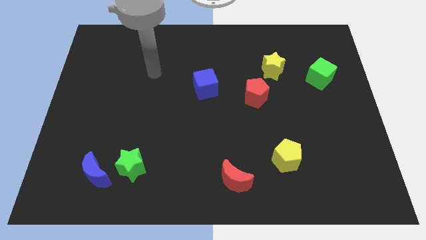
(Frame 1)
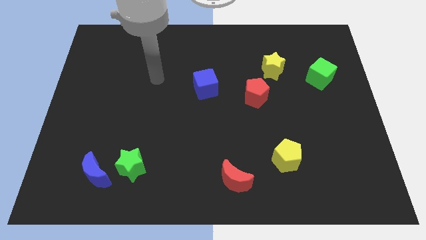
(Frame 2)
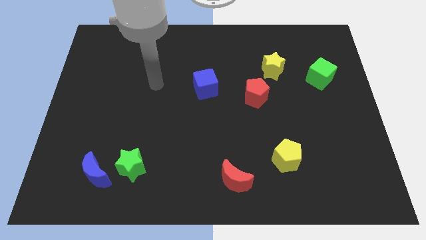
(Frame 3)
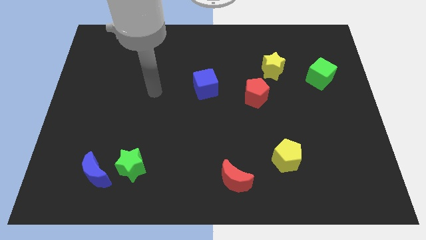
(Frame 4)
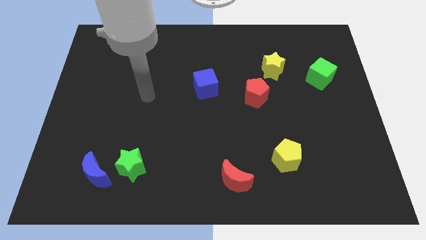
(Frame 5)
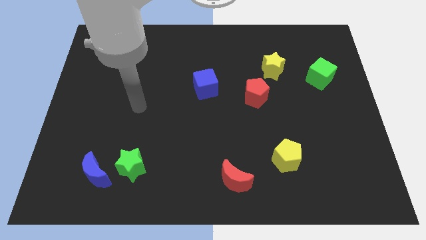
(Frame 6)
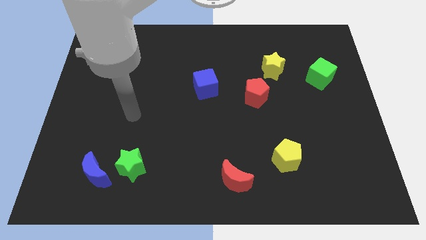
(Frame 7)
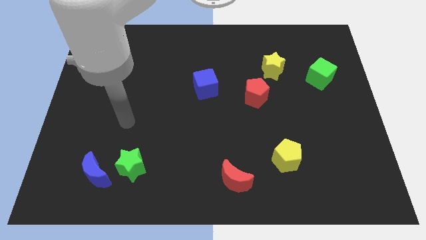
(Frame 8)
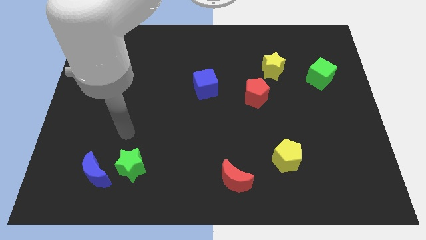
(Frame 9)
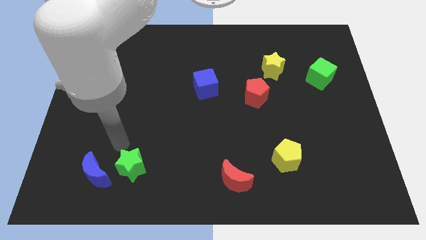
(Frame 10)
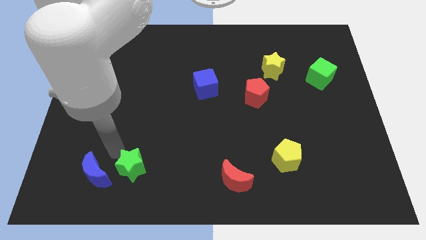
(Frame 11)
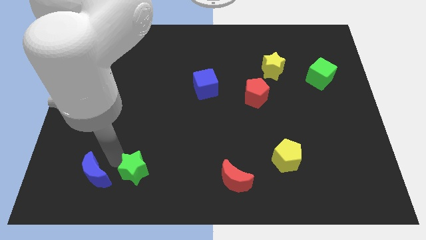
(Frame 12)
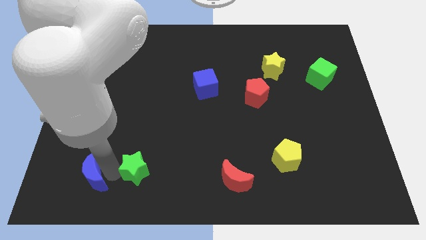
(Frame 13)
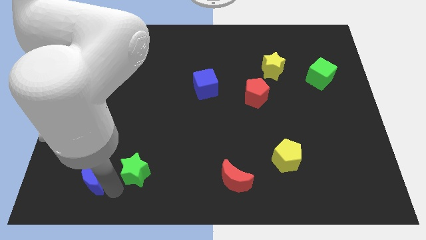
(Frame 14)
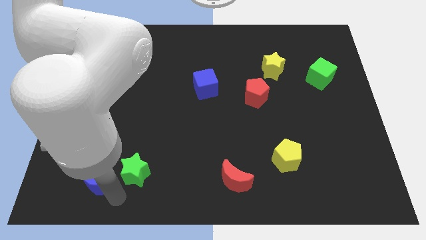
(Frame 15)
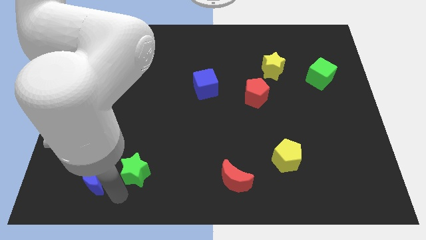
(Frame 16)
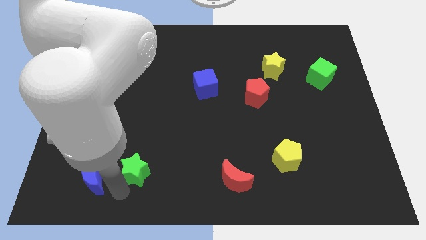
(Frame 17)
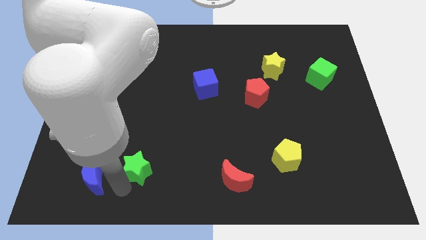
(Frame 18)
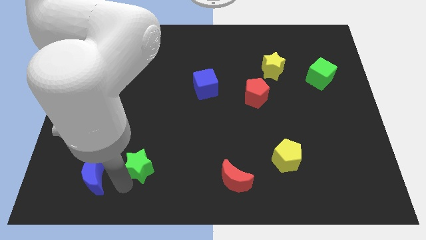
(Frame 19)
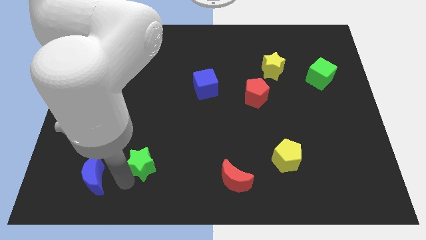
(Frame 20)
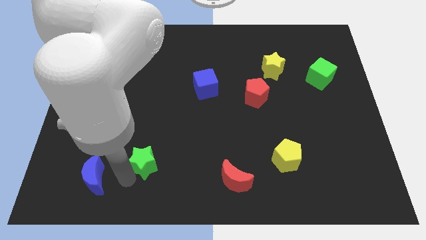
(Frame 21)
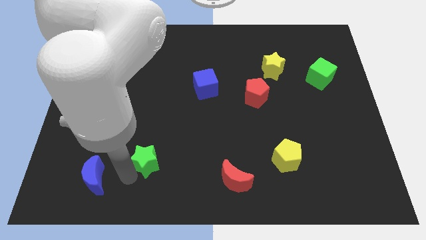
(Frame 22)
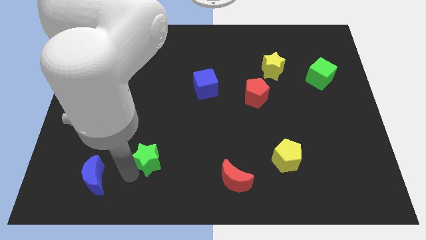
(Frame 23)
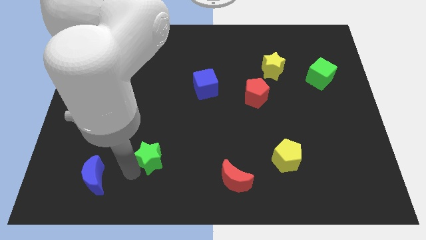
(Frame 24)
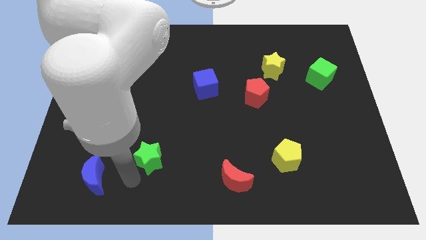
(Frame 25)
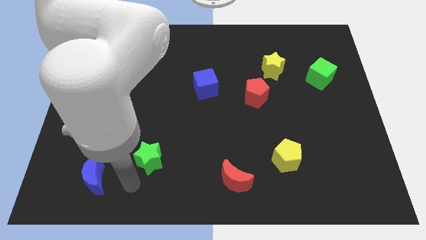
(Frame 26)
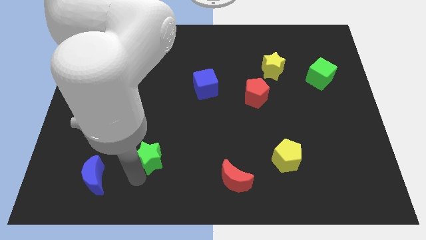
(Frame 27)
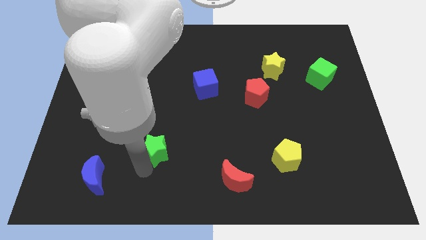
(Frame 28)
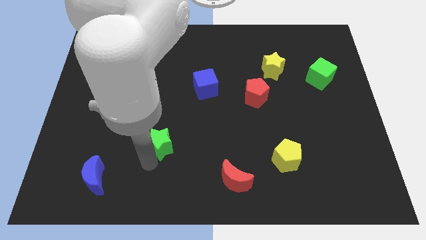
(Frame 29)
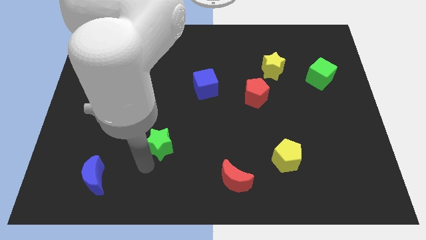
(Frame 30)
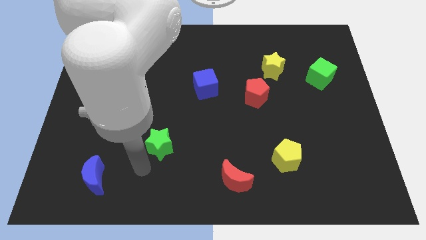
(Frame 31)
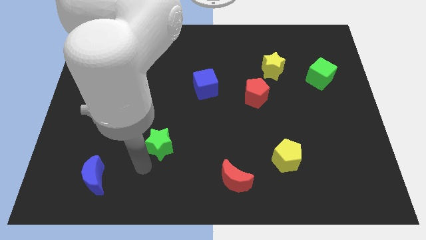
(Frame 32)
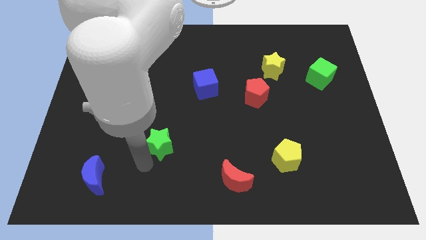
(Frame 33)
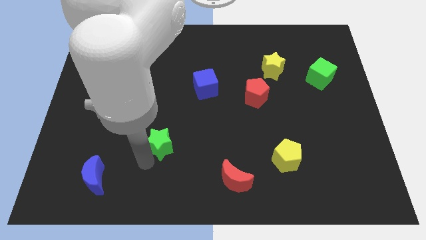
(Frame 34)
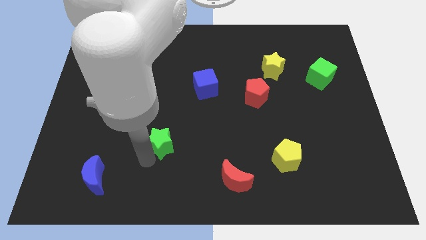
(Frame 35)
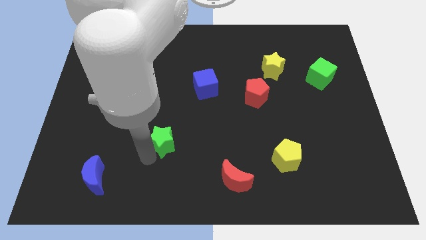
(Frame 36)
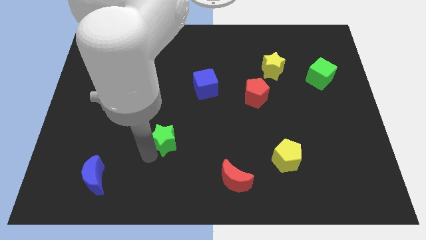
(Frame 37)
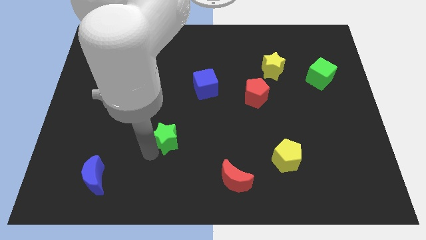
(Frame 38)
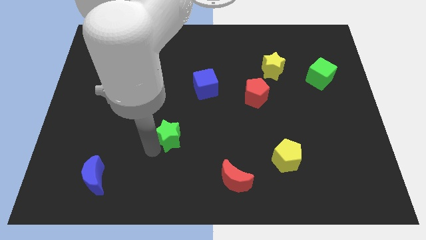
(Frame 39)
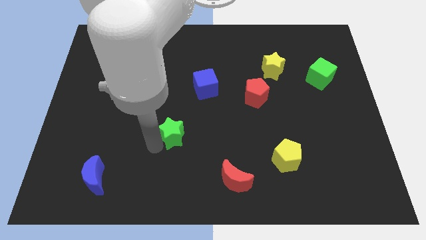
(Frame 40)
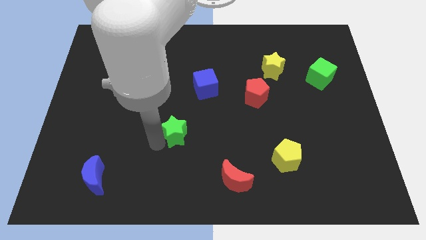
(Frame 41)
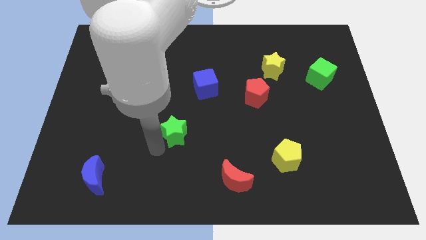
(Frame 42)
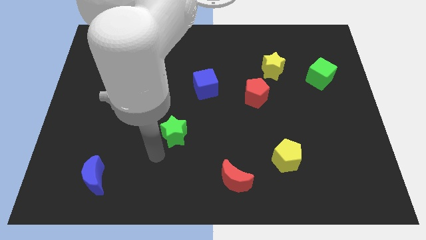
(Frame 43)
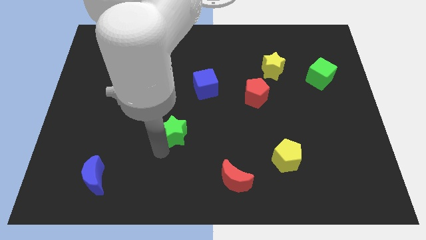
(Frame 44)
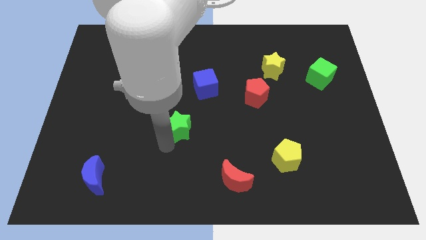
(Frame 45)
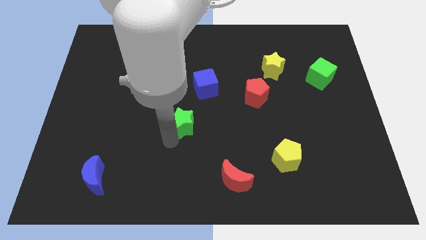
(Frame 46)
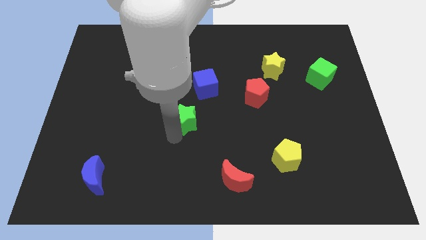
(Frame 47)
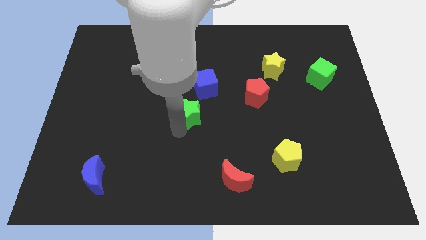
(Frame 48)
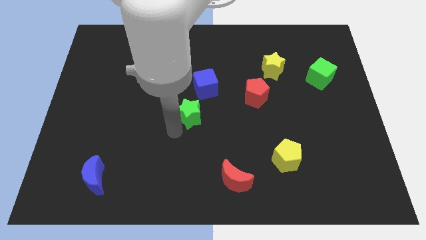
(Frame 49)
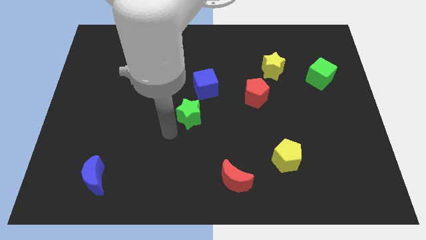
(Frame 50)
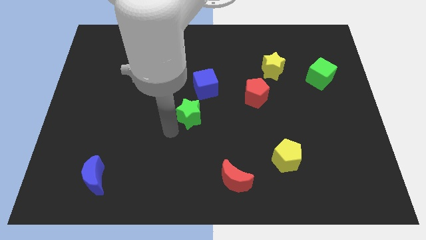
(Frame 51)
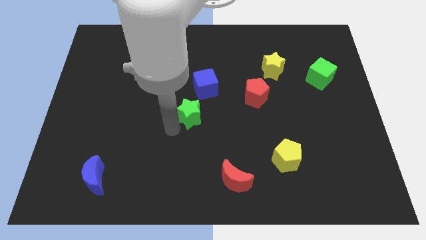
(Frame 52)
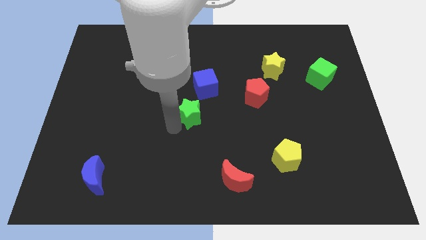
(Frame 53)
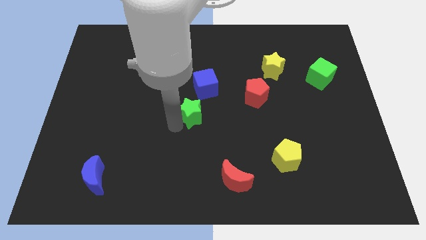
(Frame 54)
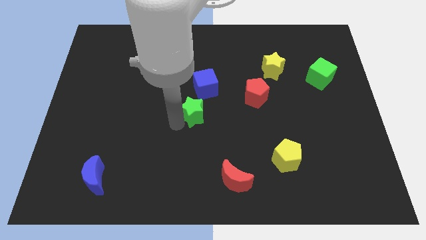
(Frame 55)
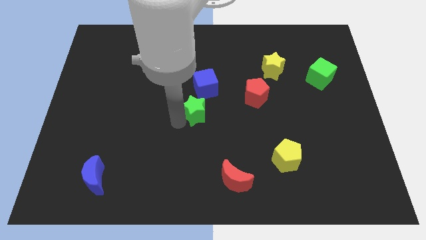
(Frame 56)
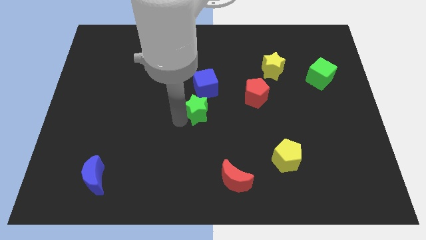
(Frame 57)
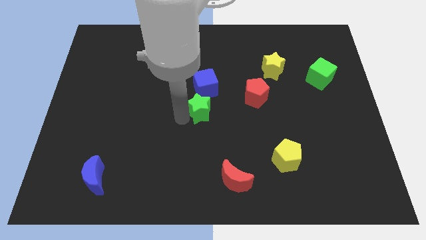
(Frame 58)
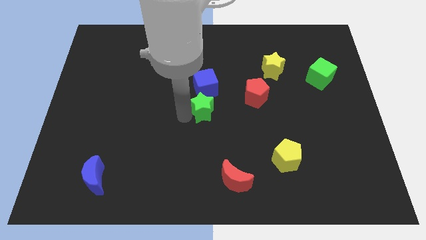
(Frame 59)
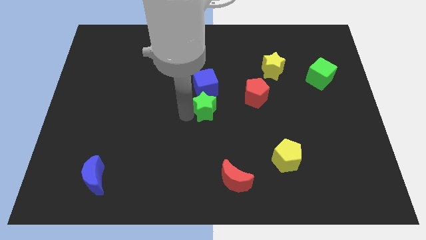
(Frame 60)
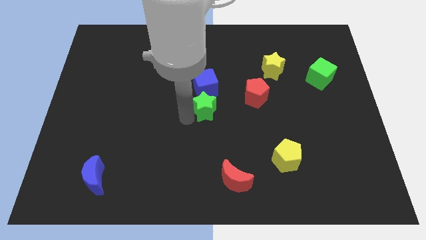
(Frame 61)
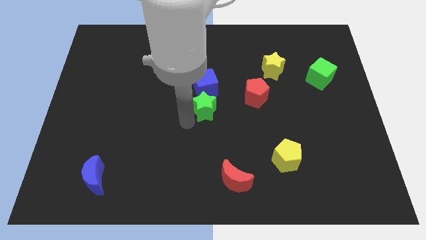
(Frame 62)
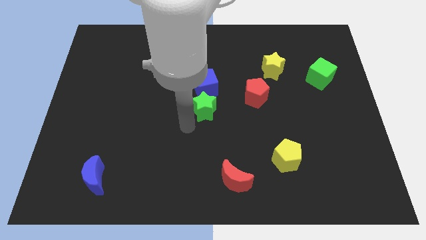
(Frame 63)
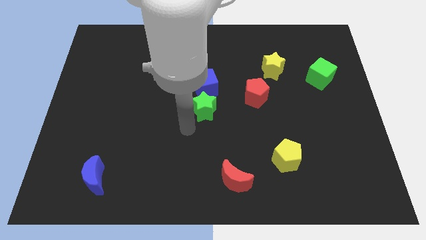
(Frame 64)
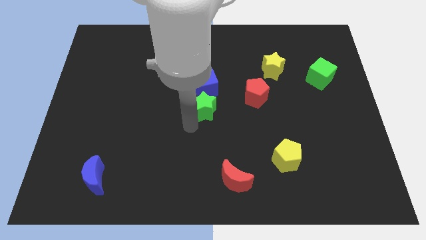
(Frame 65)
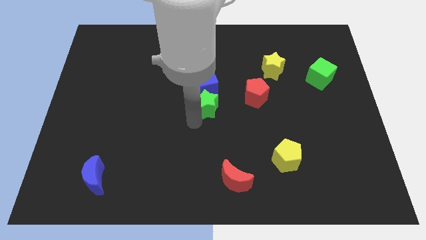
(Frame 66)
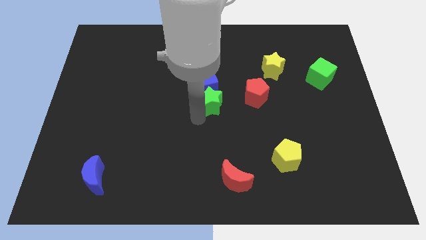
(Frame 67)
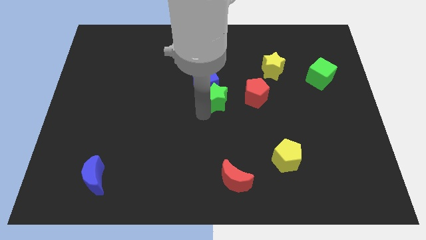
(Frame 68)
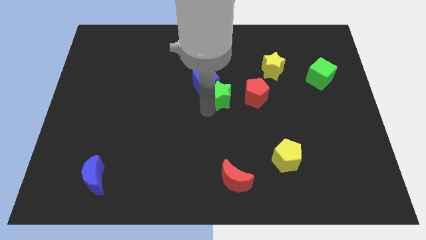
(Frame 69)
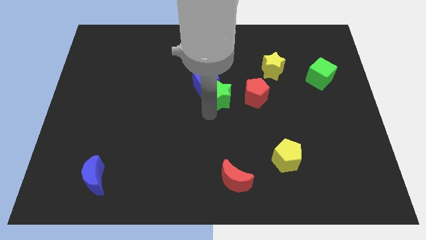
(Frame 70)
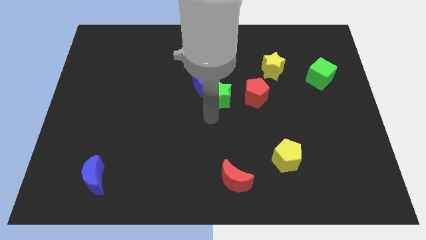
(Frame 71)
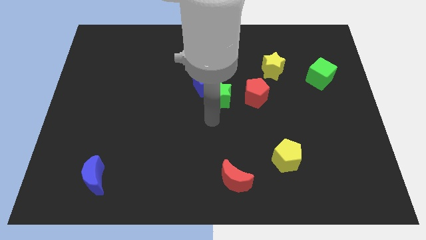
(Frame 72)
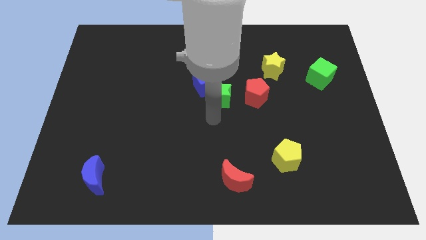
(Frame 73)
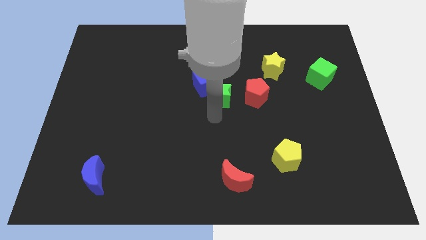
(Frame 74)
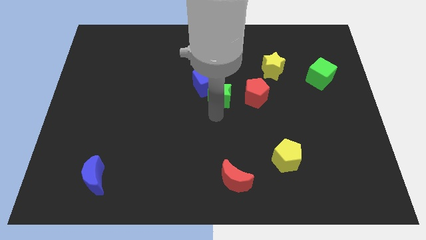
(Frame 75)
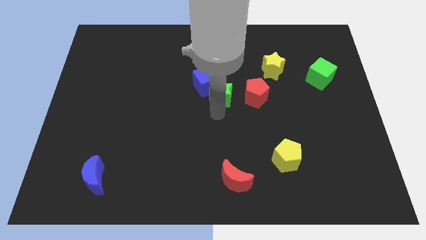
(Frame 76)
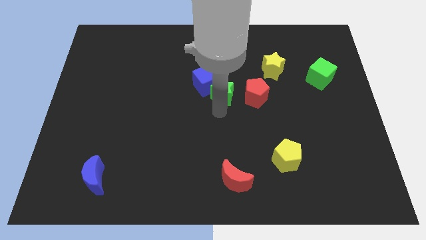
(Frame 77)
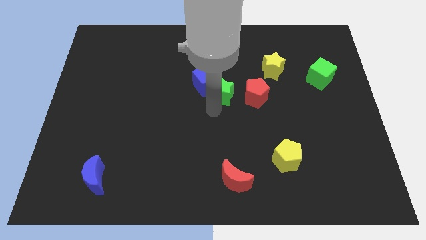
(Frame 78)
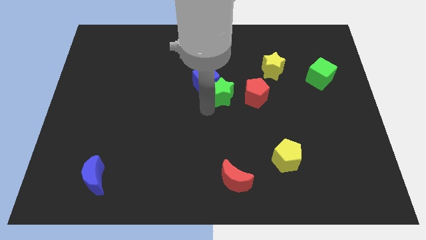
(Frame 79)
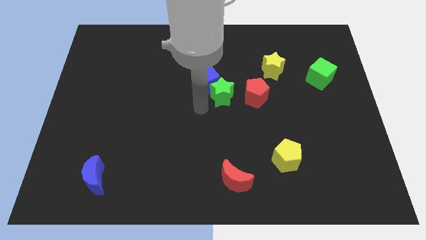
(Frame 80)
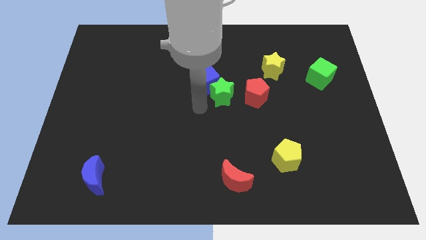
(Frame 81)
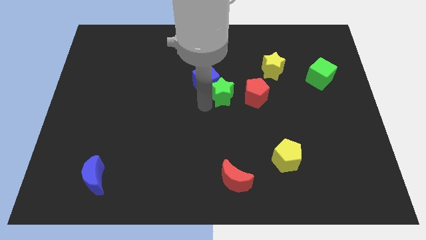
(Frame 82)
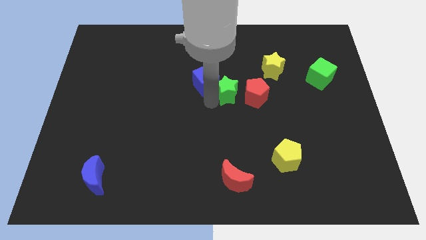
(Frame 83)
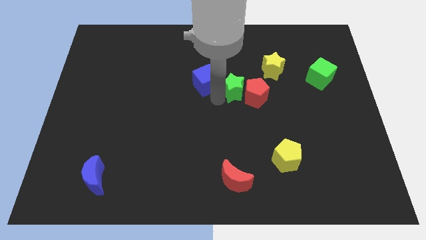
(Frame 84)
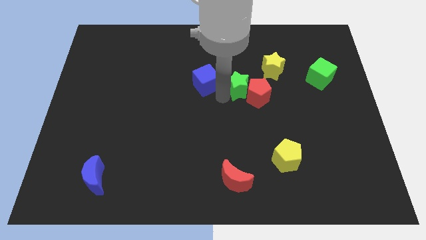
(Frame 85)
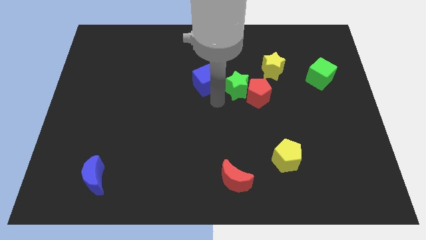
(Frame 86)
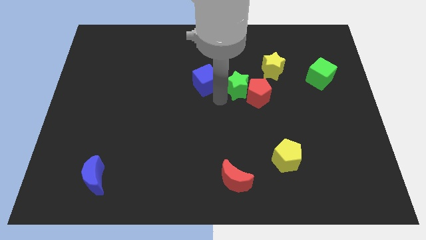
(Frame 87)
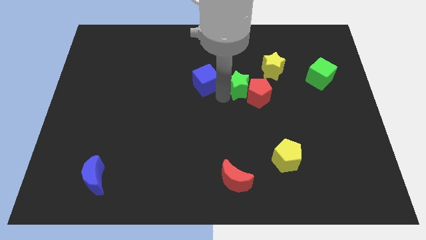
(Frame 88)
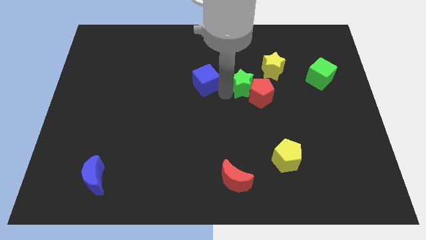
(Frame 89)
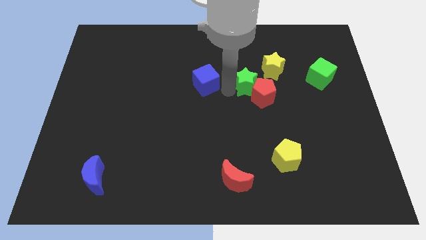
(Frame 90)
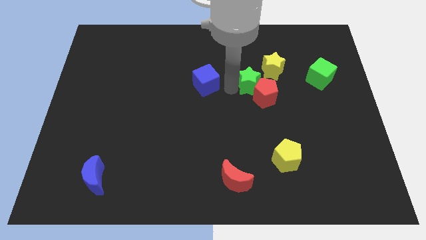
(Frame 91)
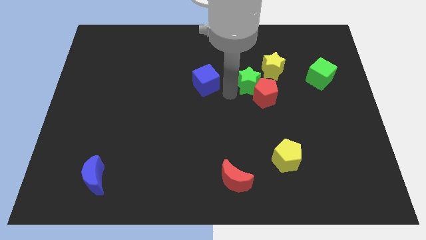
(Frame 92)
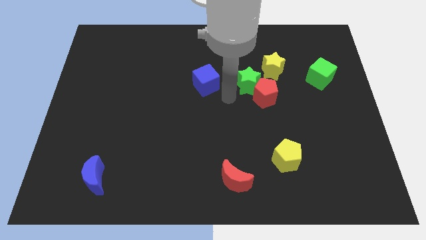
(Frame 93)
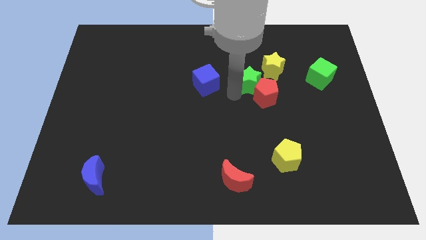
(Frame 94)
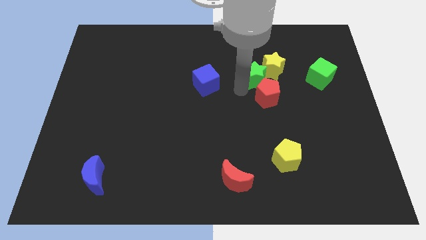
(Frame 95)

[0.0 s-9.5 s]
move the green star to the yellow star
